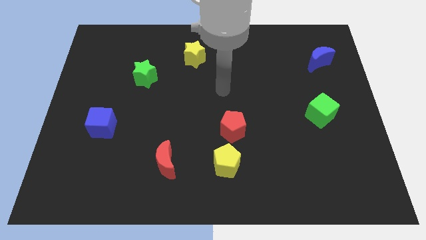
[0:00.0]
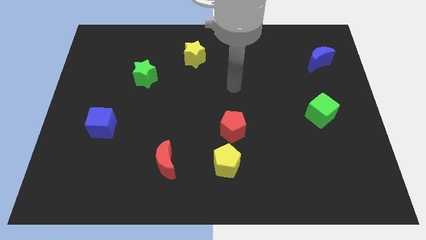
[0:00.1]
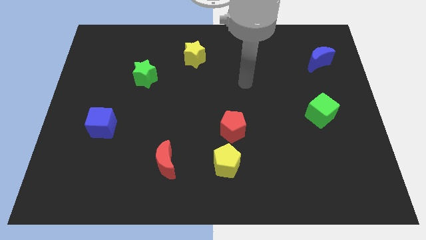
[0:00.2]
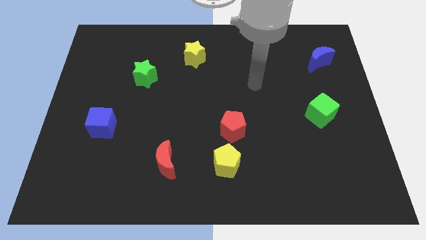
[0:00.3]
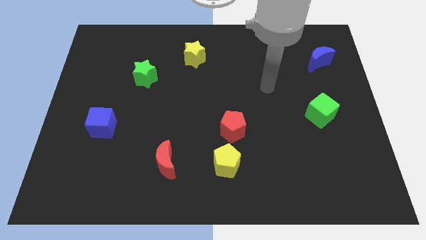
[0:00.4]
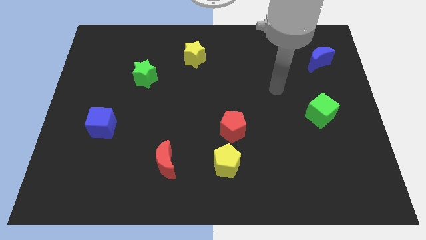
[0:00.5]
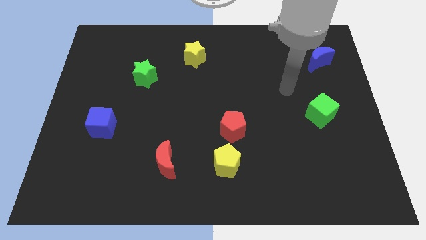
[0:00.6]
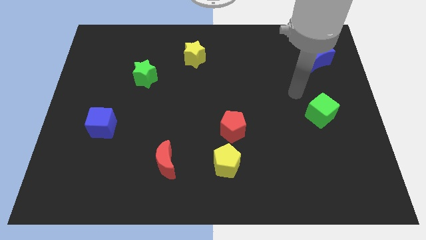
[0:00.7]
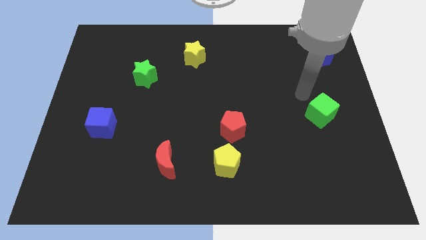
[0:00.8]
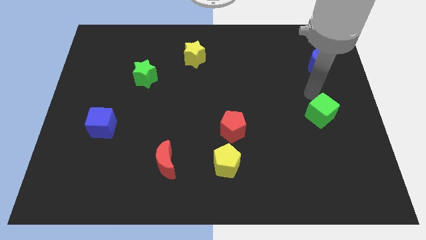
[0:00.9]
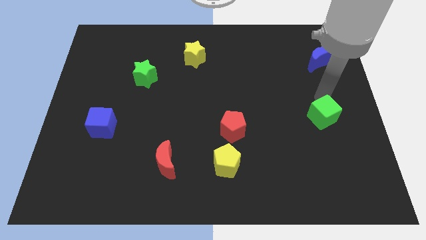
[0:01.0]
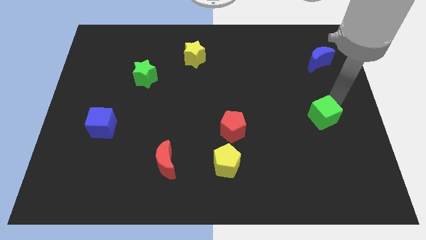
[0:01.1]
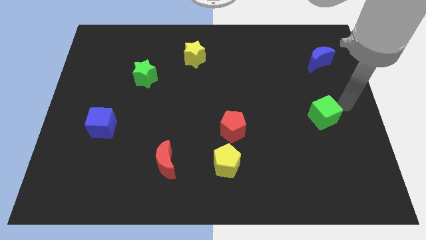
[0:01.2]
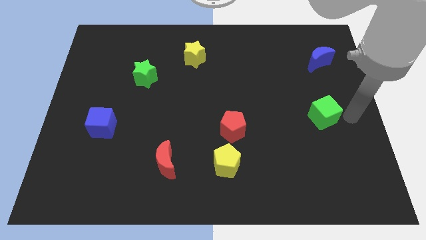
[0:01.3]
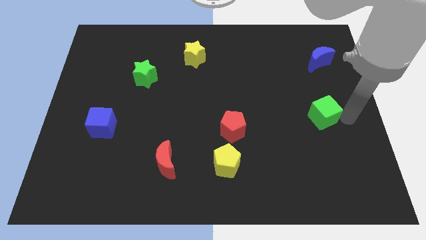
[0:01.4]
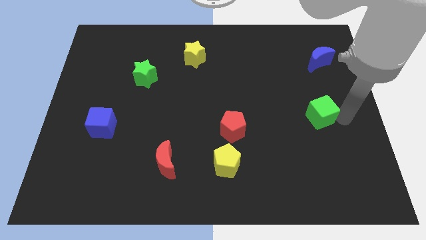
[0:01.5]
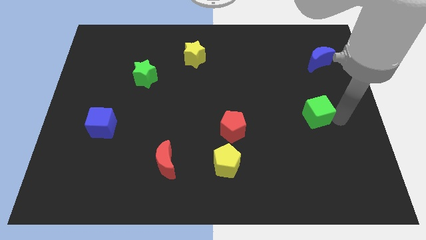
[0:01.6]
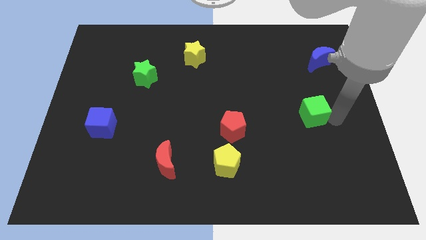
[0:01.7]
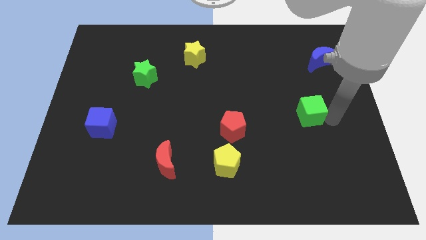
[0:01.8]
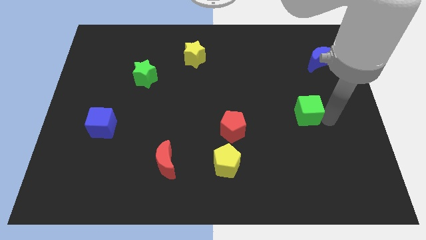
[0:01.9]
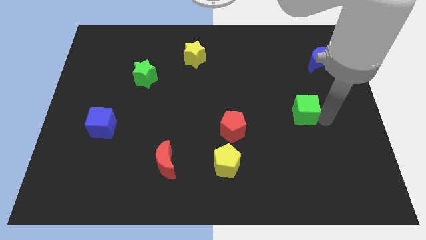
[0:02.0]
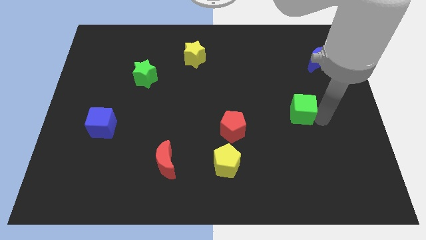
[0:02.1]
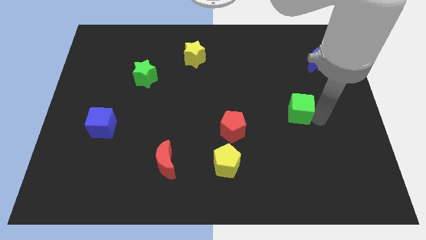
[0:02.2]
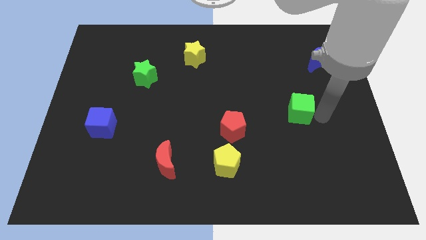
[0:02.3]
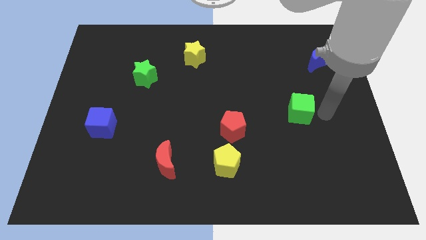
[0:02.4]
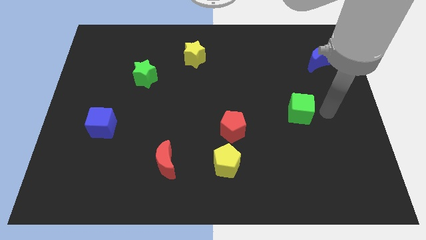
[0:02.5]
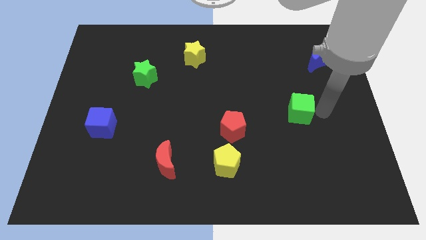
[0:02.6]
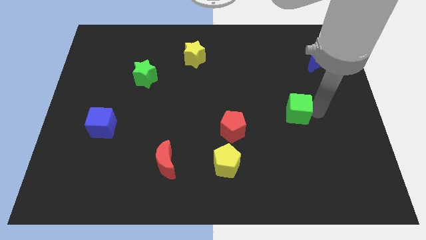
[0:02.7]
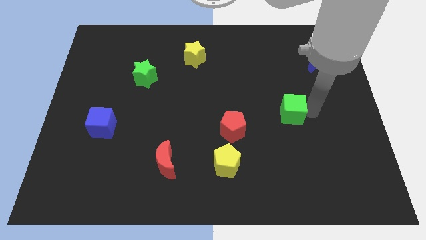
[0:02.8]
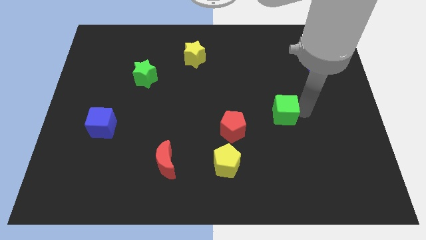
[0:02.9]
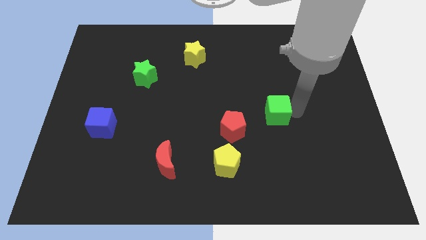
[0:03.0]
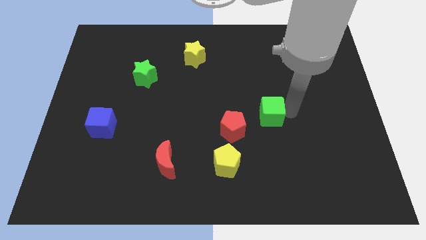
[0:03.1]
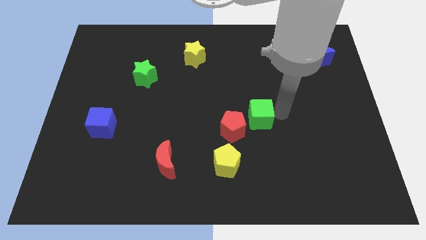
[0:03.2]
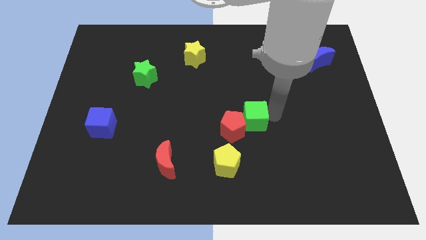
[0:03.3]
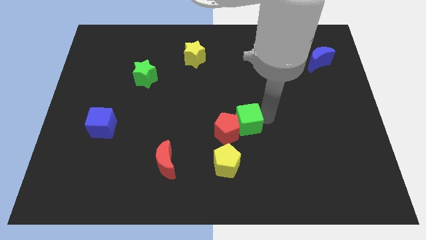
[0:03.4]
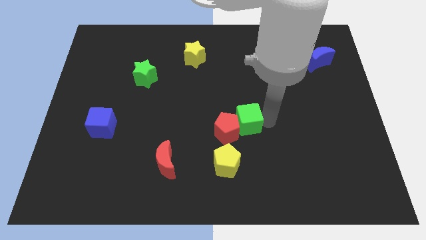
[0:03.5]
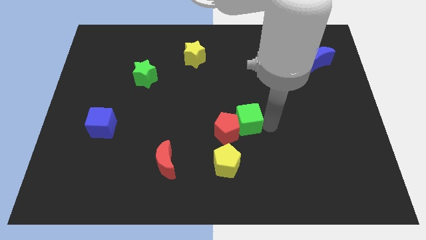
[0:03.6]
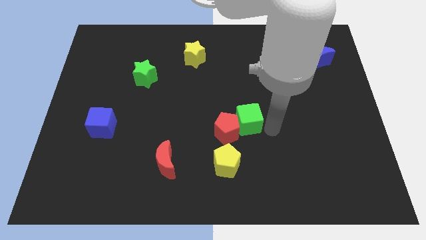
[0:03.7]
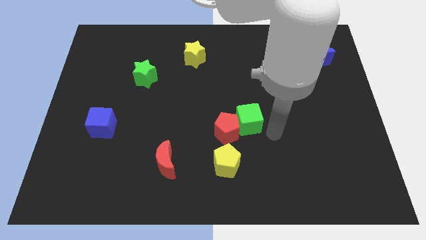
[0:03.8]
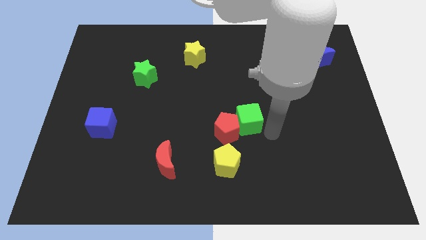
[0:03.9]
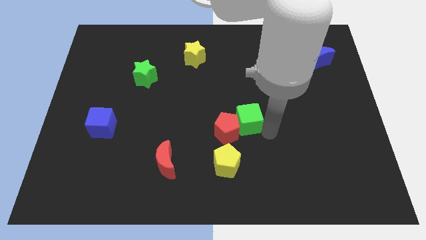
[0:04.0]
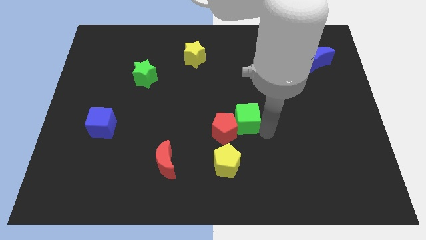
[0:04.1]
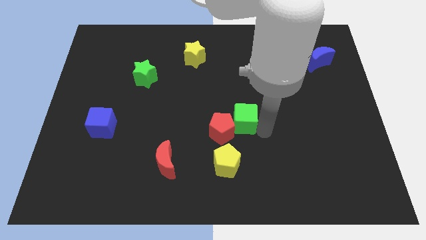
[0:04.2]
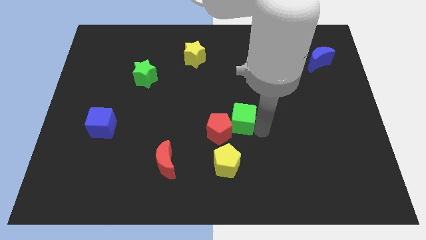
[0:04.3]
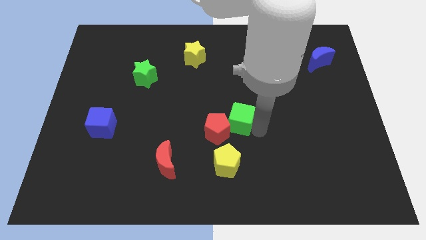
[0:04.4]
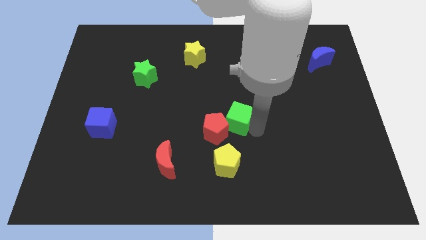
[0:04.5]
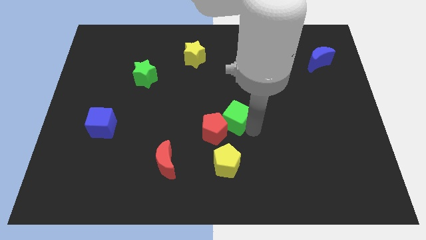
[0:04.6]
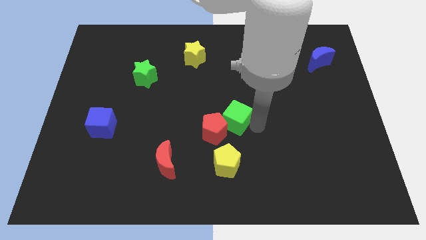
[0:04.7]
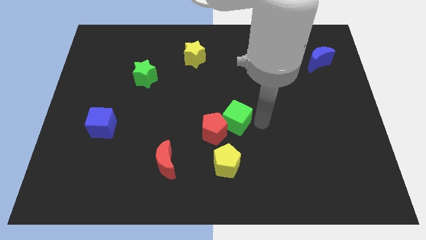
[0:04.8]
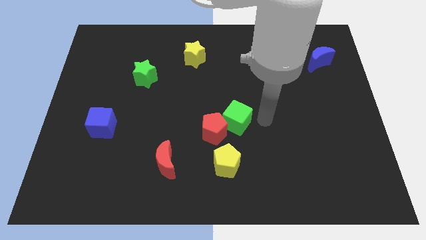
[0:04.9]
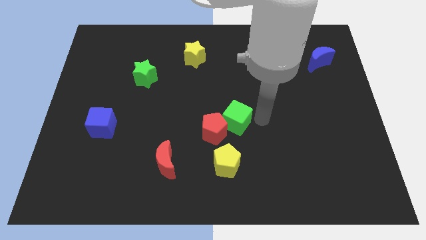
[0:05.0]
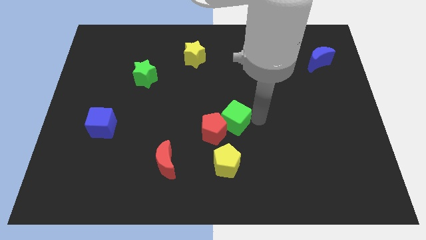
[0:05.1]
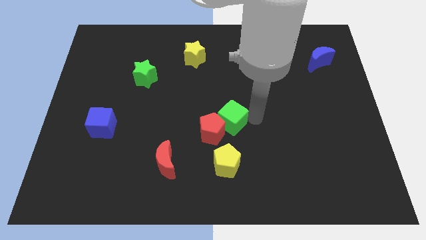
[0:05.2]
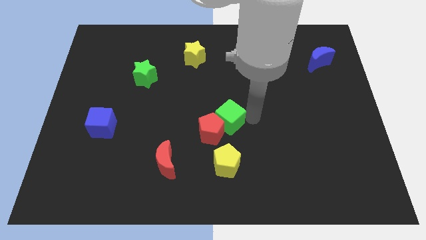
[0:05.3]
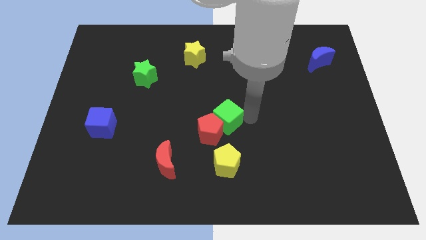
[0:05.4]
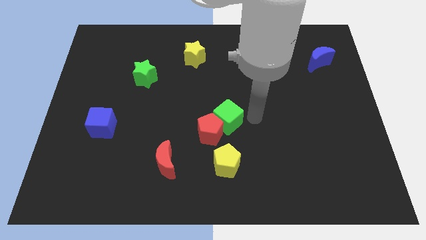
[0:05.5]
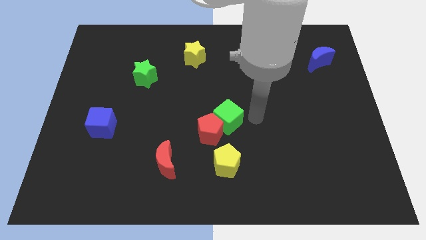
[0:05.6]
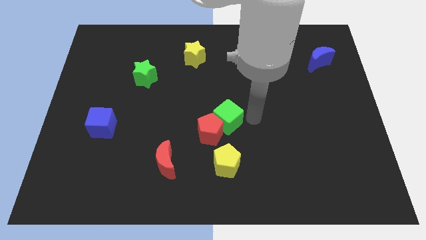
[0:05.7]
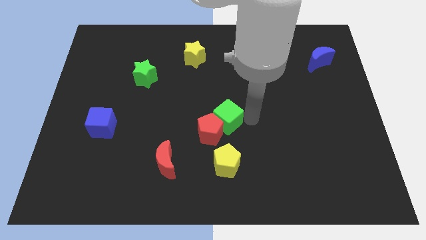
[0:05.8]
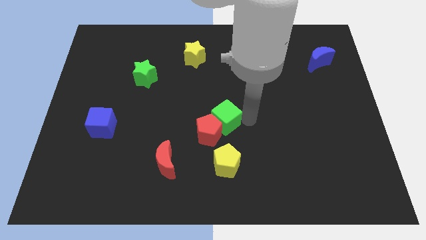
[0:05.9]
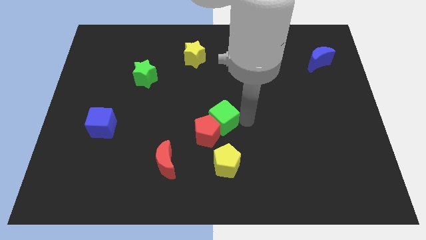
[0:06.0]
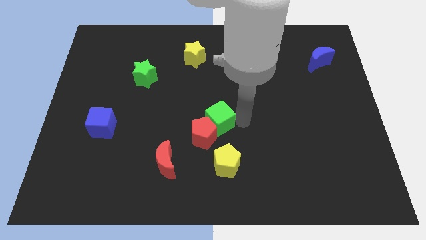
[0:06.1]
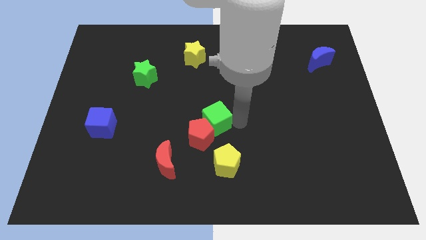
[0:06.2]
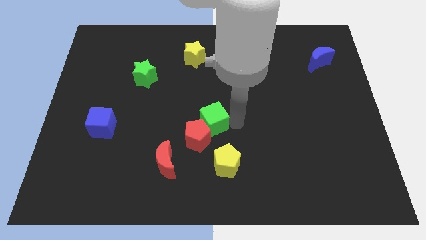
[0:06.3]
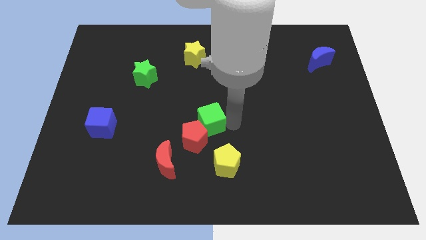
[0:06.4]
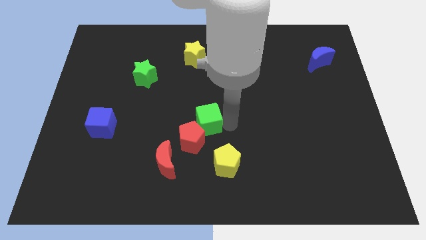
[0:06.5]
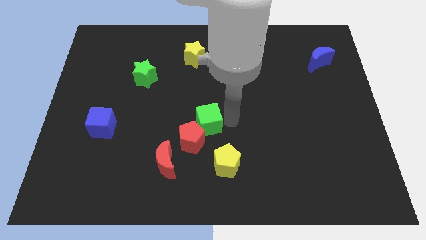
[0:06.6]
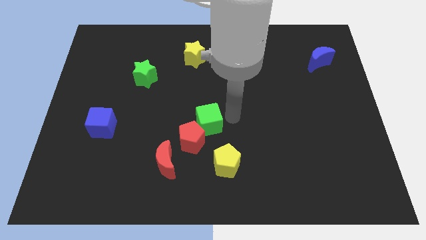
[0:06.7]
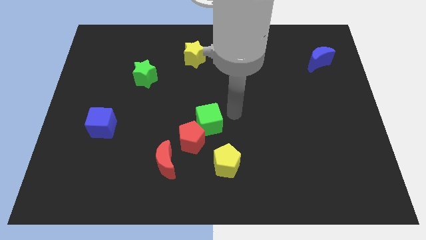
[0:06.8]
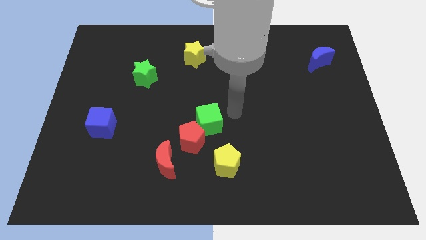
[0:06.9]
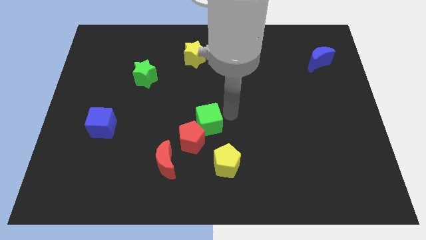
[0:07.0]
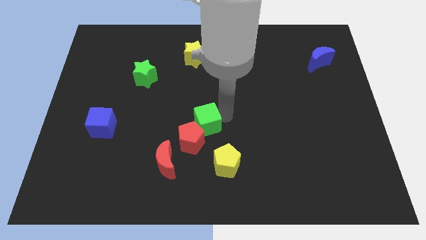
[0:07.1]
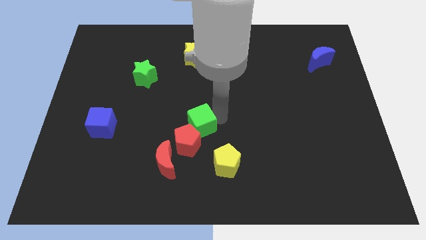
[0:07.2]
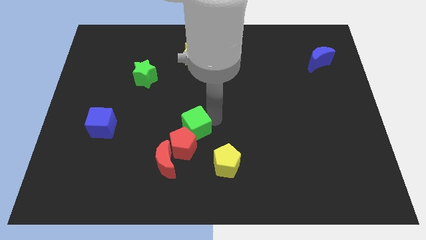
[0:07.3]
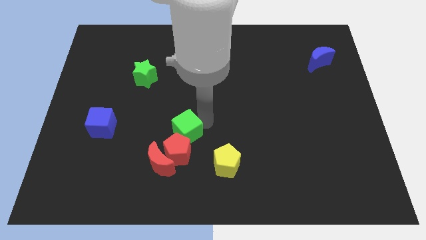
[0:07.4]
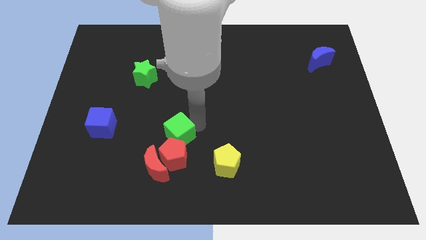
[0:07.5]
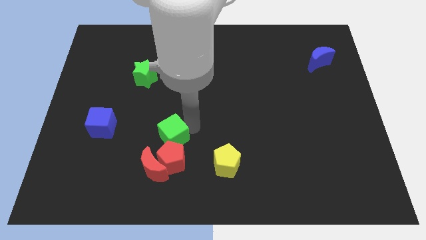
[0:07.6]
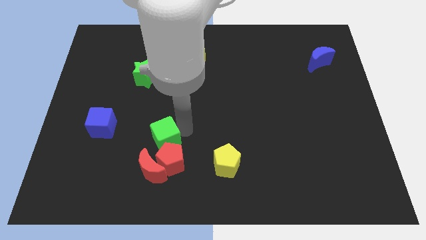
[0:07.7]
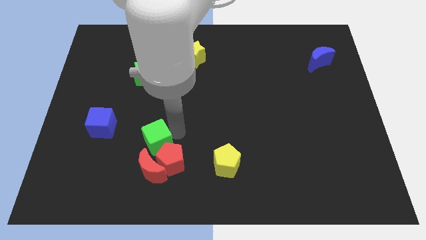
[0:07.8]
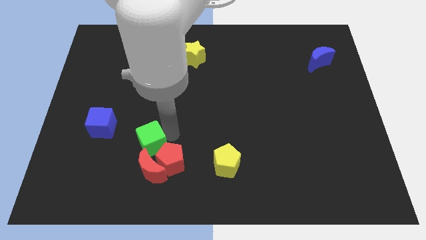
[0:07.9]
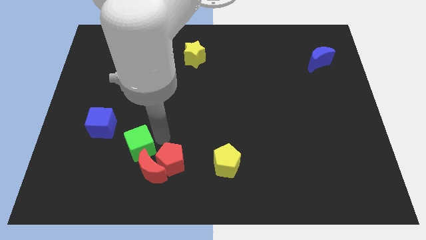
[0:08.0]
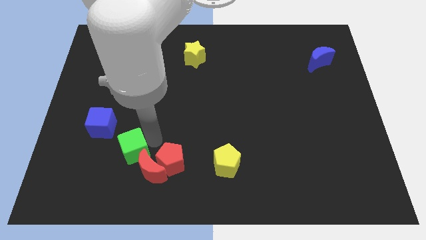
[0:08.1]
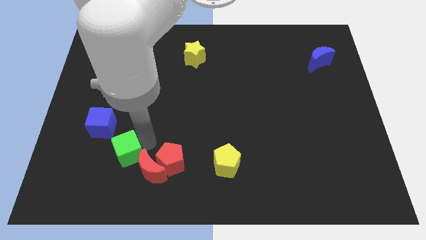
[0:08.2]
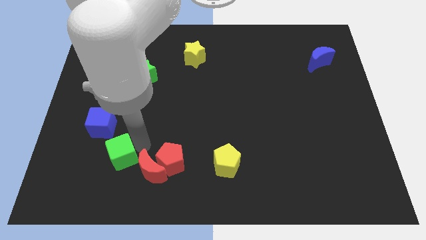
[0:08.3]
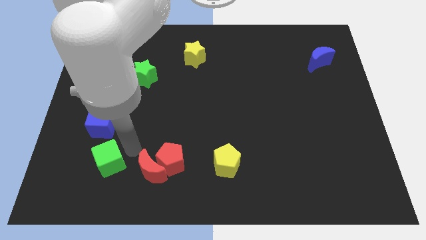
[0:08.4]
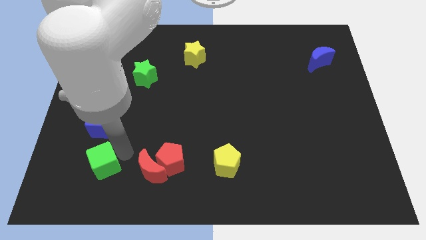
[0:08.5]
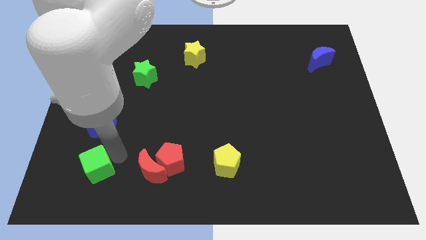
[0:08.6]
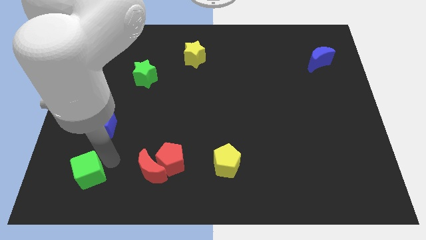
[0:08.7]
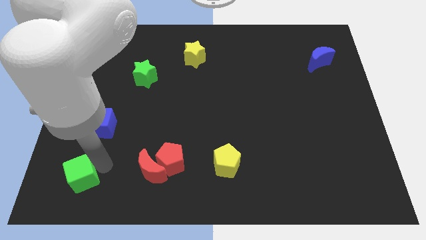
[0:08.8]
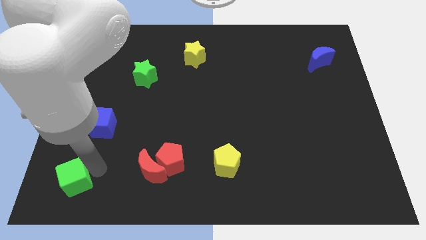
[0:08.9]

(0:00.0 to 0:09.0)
put the green cube to the lower left corner
